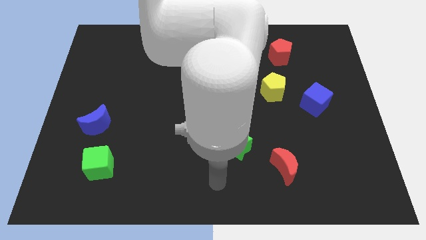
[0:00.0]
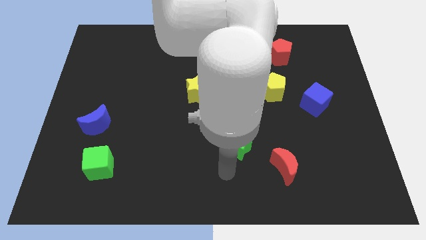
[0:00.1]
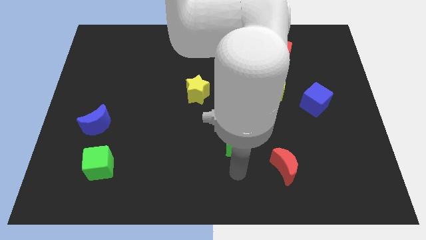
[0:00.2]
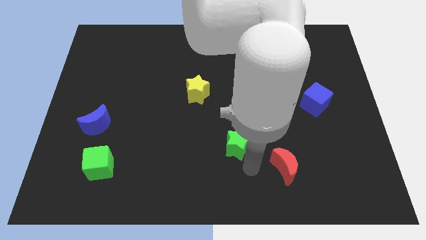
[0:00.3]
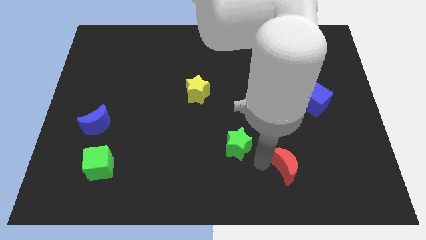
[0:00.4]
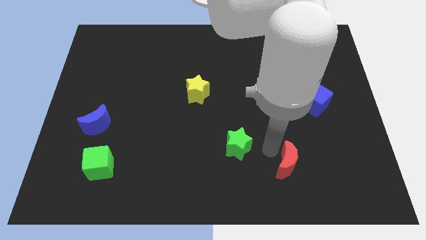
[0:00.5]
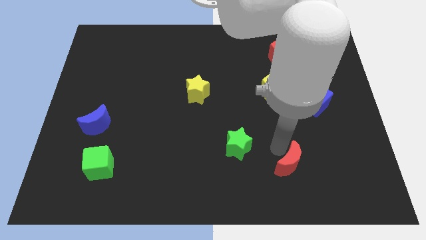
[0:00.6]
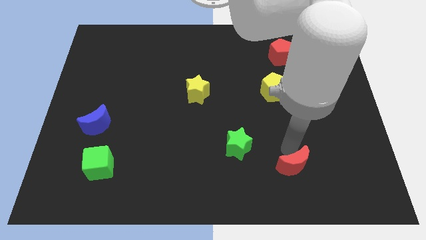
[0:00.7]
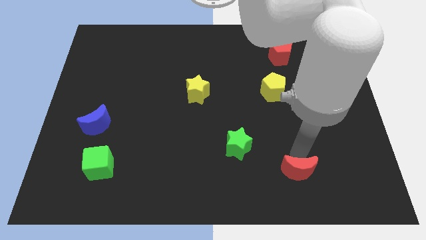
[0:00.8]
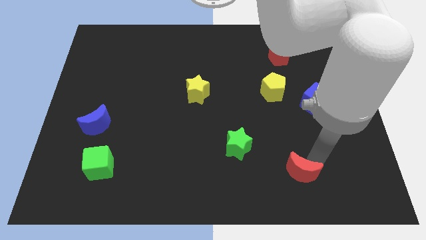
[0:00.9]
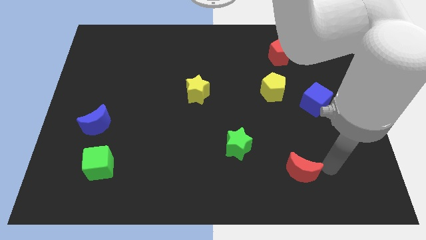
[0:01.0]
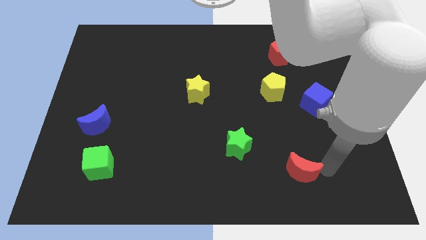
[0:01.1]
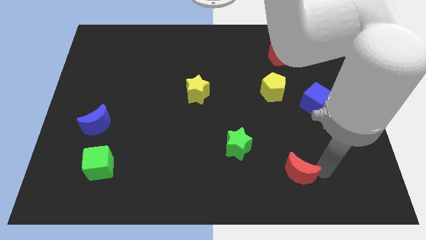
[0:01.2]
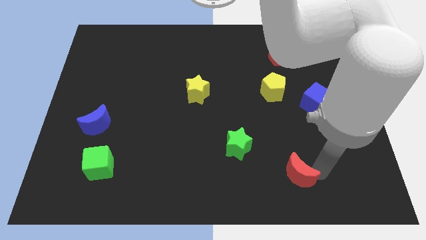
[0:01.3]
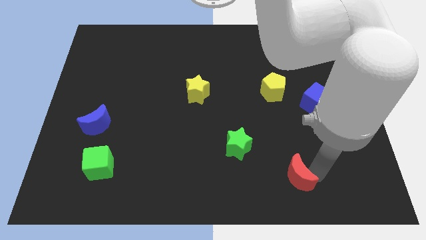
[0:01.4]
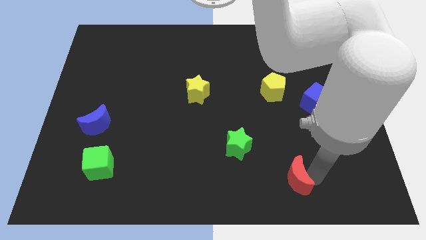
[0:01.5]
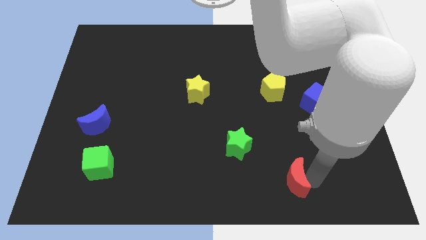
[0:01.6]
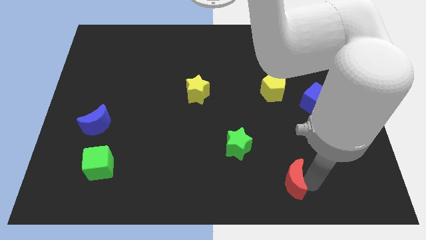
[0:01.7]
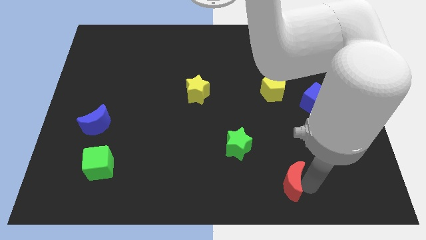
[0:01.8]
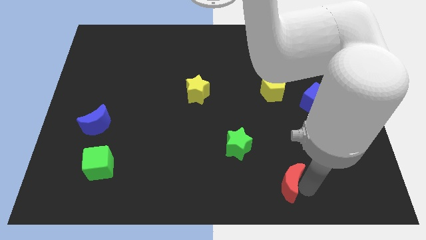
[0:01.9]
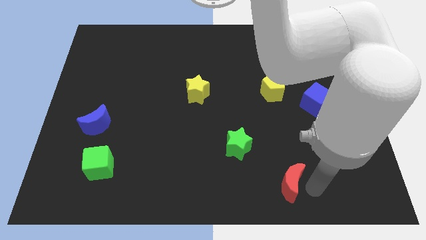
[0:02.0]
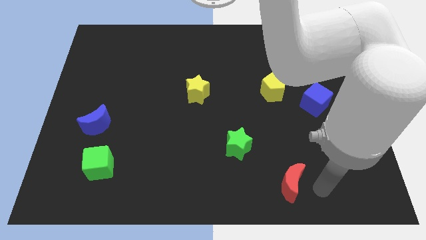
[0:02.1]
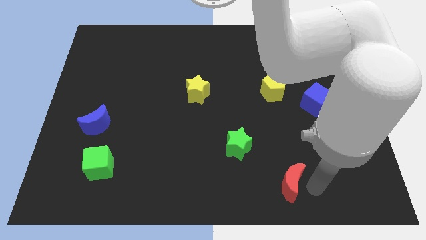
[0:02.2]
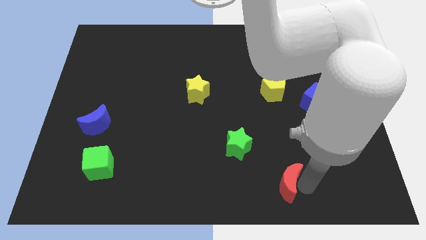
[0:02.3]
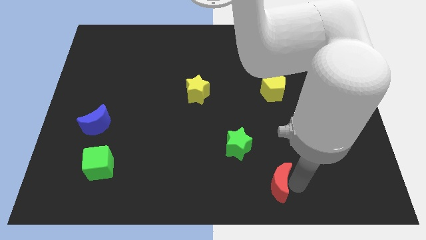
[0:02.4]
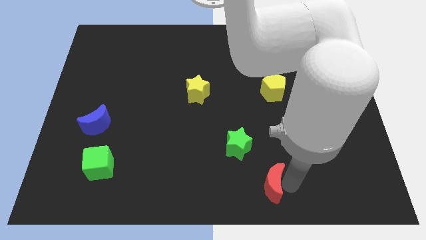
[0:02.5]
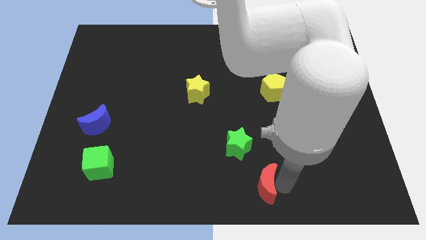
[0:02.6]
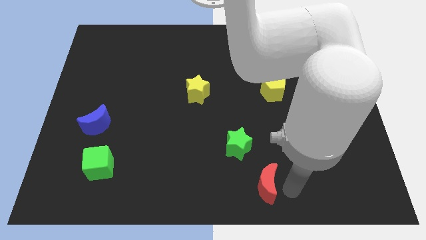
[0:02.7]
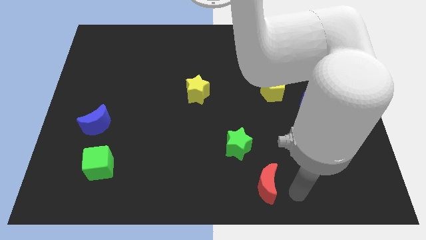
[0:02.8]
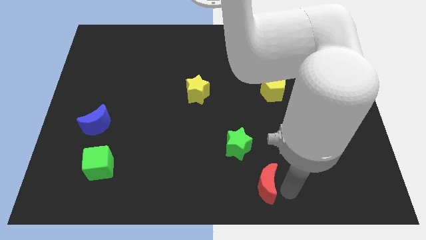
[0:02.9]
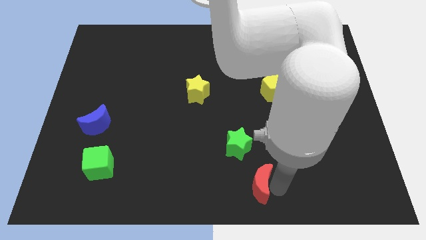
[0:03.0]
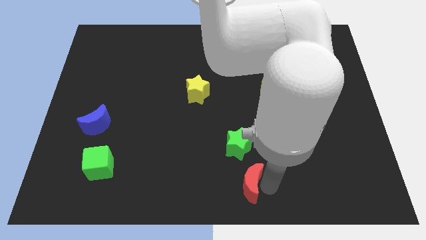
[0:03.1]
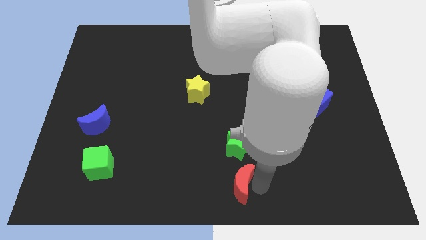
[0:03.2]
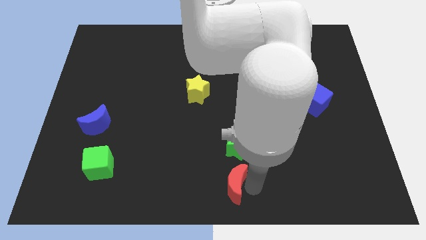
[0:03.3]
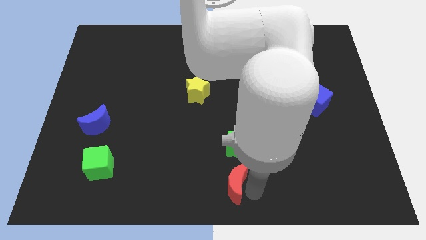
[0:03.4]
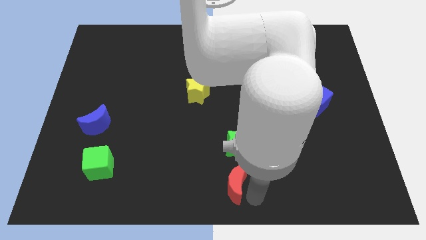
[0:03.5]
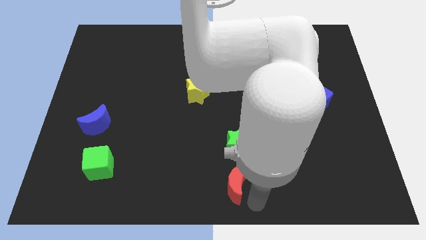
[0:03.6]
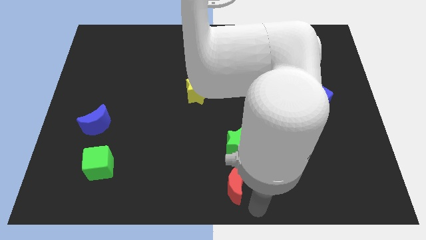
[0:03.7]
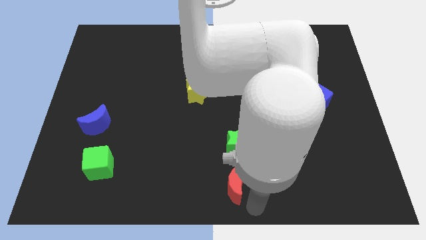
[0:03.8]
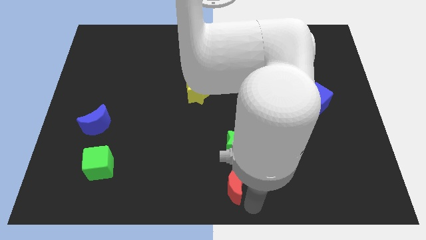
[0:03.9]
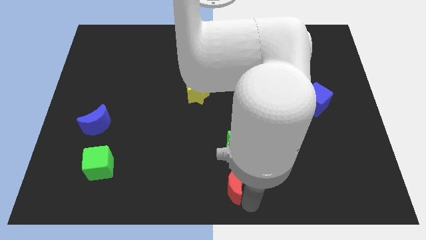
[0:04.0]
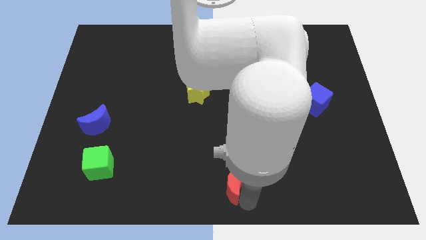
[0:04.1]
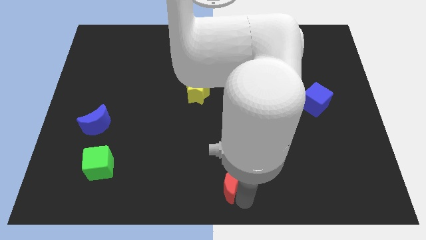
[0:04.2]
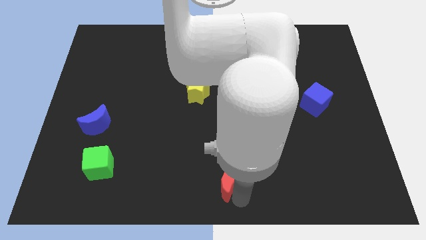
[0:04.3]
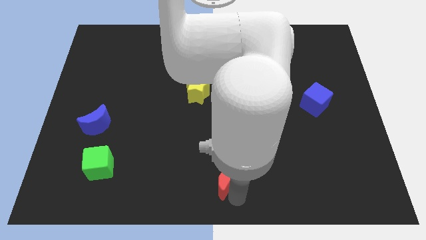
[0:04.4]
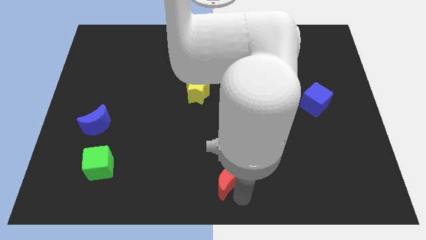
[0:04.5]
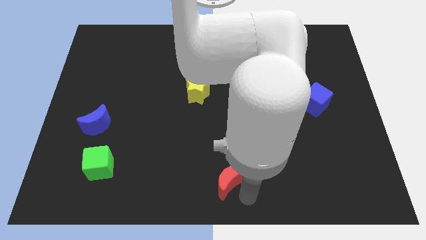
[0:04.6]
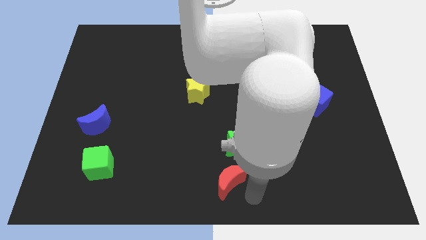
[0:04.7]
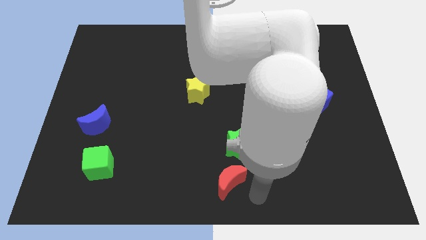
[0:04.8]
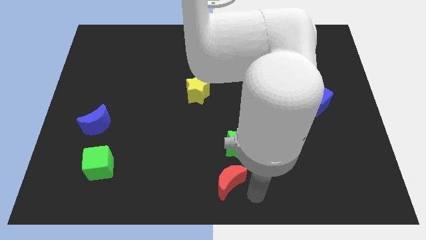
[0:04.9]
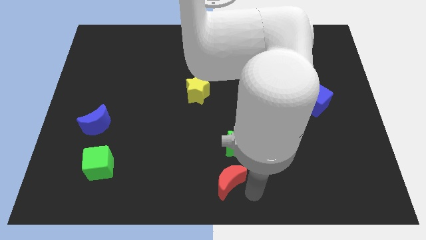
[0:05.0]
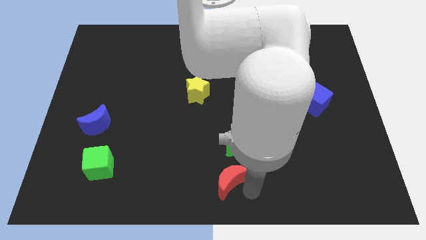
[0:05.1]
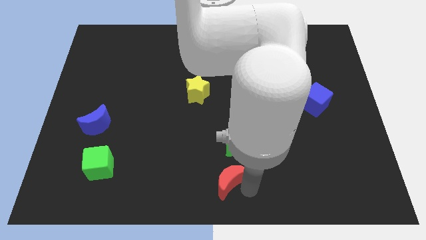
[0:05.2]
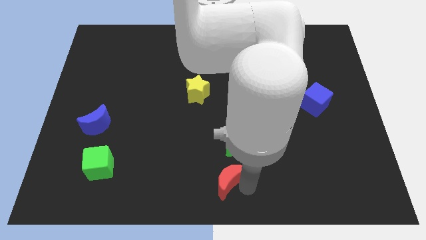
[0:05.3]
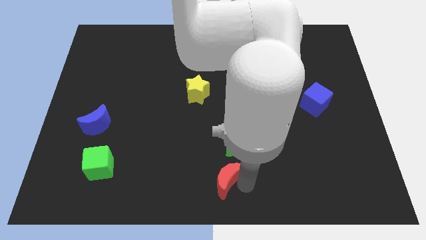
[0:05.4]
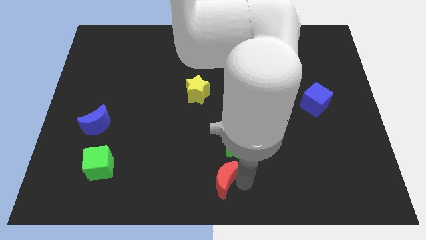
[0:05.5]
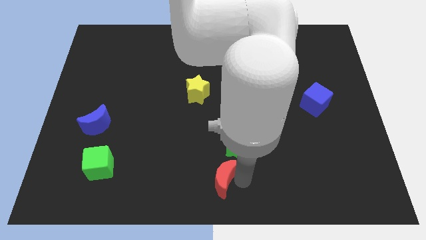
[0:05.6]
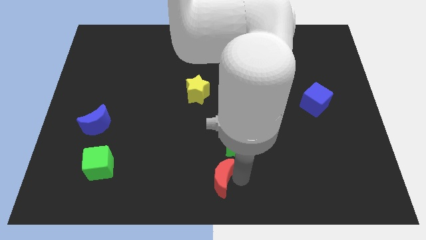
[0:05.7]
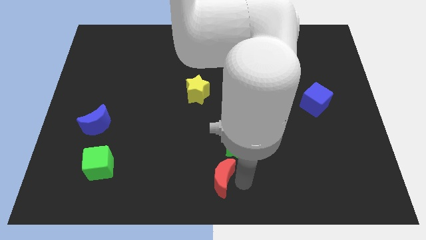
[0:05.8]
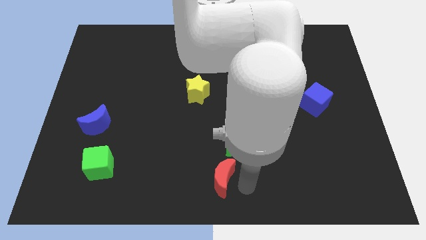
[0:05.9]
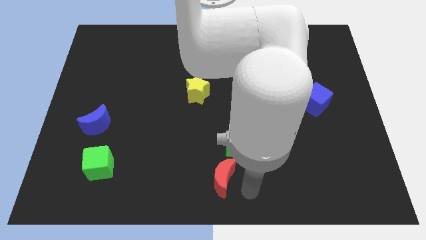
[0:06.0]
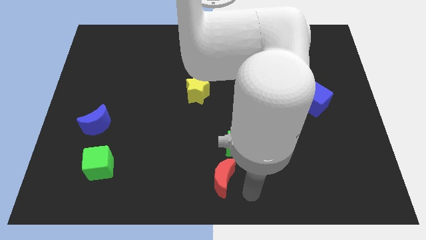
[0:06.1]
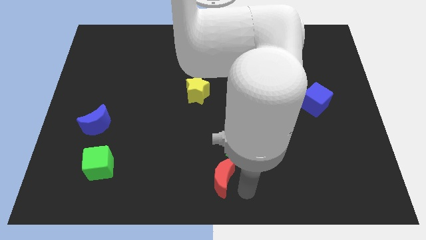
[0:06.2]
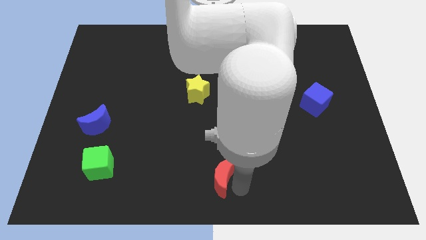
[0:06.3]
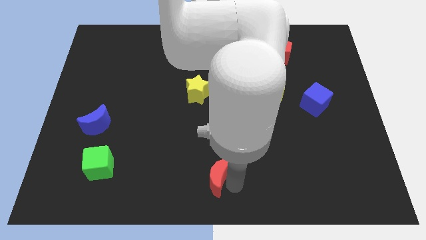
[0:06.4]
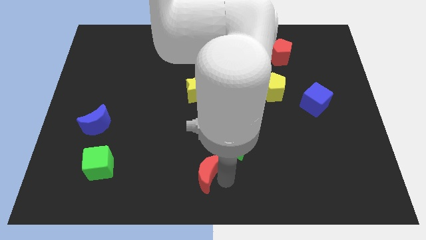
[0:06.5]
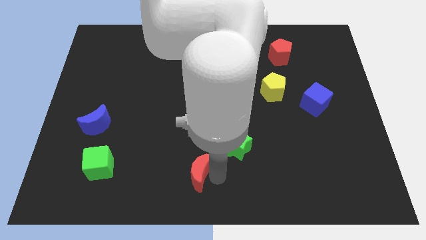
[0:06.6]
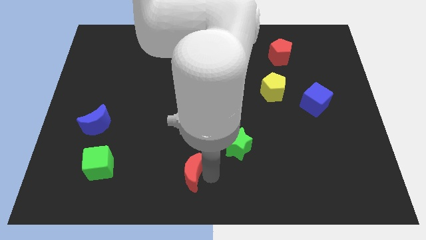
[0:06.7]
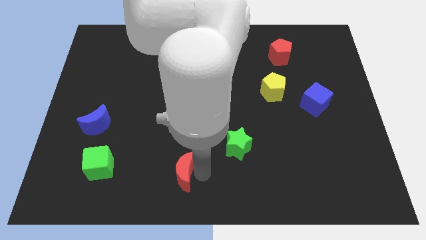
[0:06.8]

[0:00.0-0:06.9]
move the red moon to the left

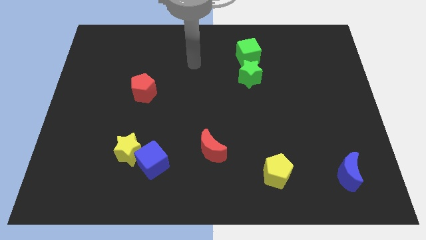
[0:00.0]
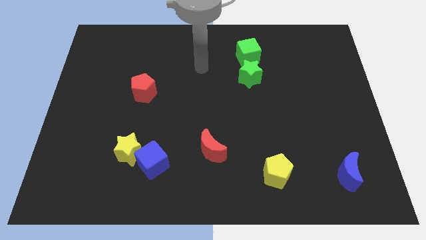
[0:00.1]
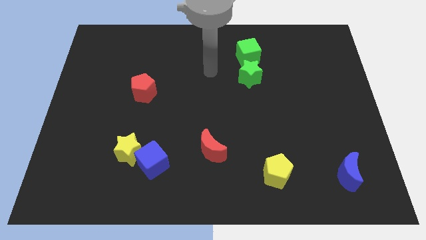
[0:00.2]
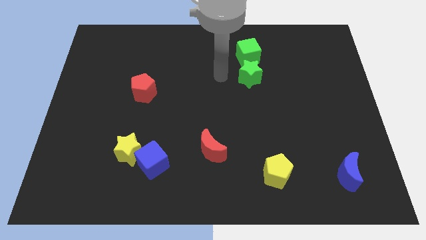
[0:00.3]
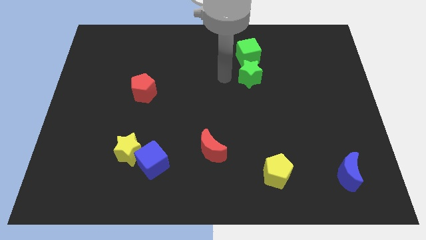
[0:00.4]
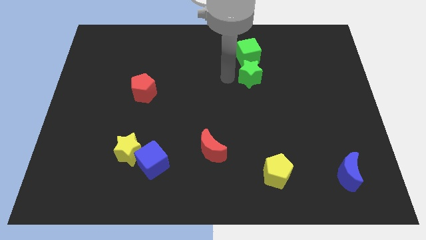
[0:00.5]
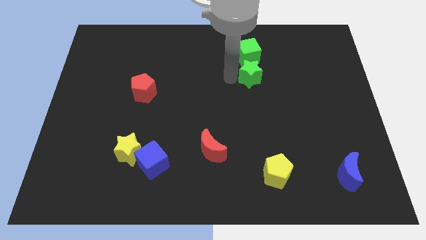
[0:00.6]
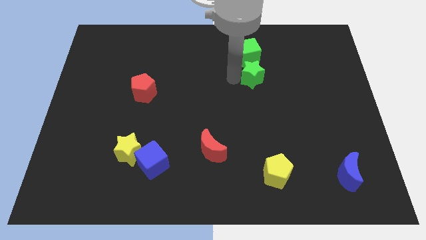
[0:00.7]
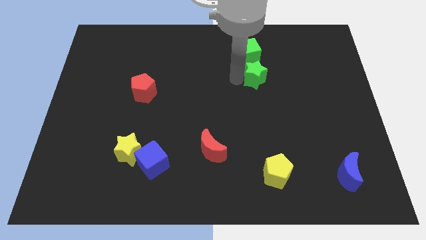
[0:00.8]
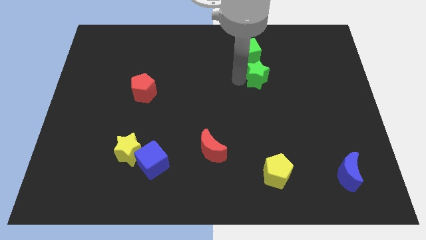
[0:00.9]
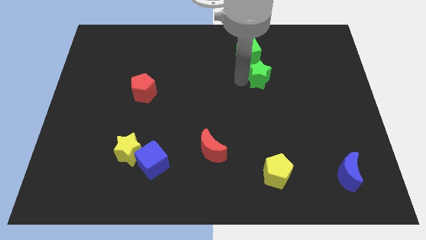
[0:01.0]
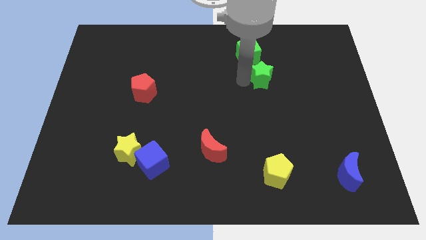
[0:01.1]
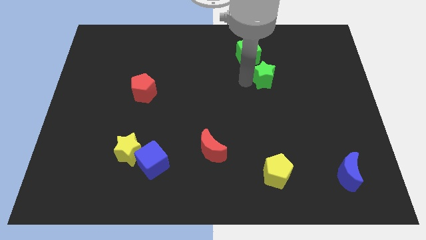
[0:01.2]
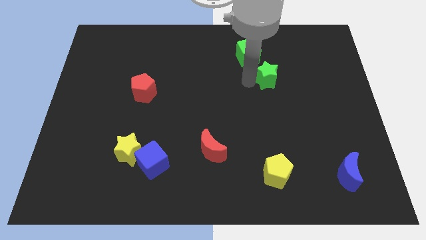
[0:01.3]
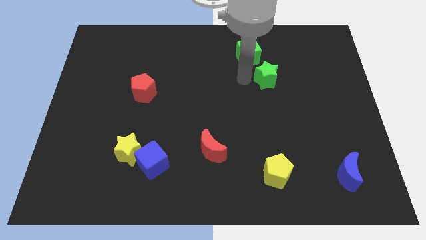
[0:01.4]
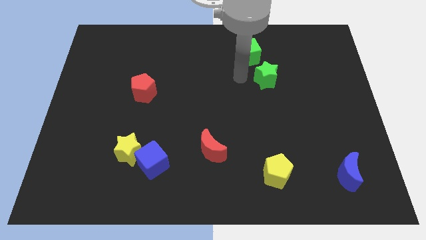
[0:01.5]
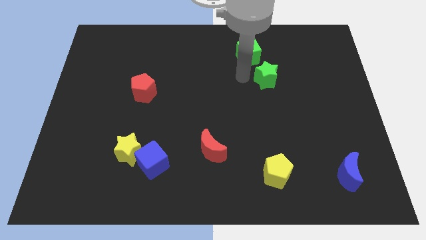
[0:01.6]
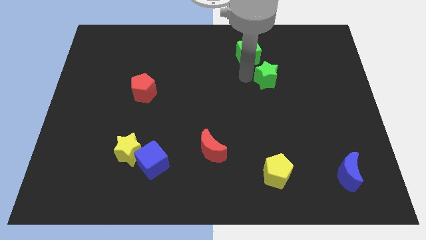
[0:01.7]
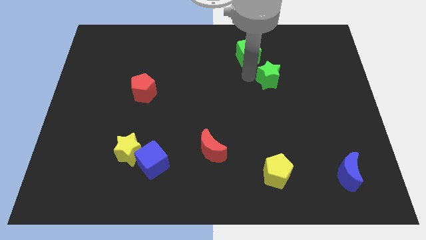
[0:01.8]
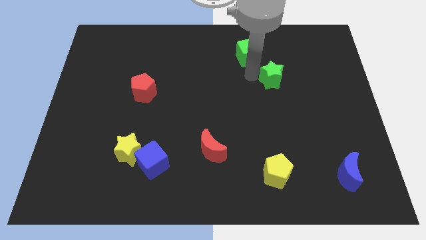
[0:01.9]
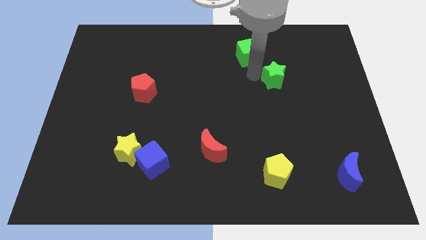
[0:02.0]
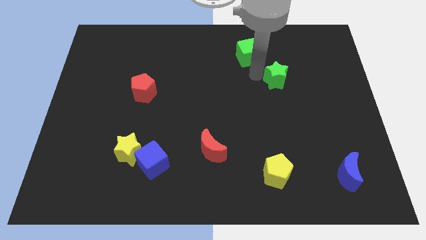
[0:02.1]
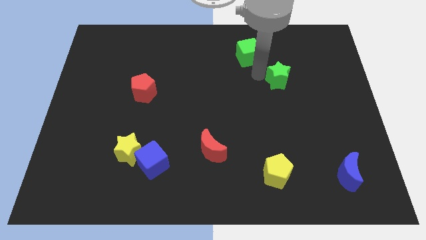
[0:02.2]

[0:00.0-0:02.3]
move the green star right a bit
